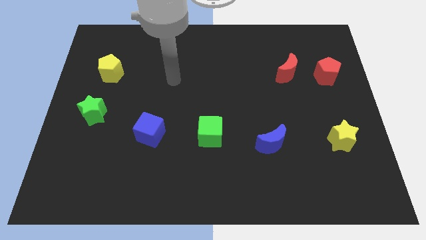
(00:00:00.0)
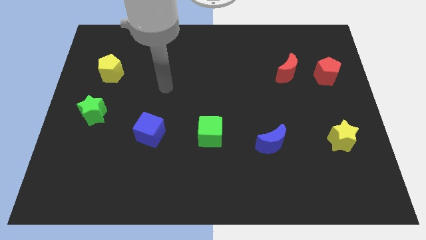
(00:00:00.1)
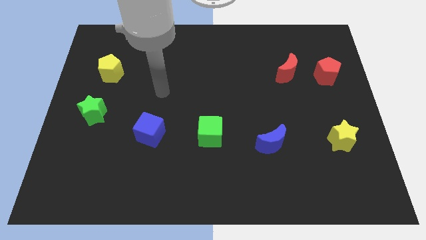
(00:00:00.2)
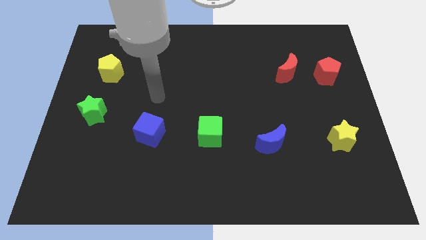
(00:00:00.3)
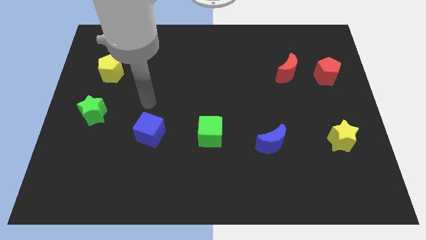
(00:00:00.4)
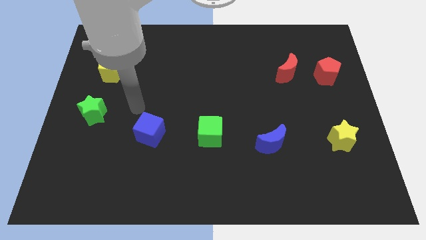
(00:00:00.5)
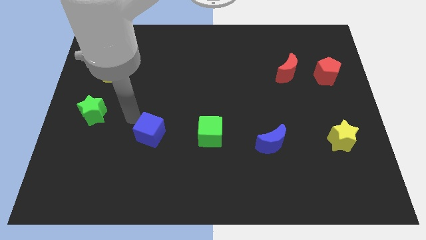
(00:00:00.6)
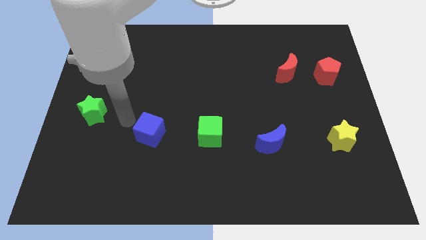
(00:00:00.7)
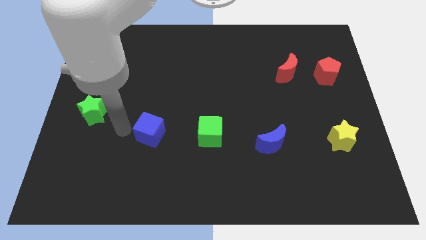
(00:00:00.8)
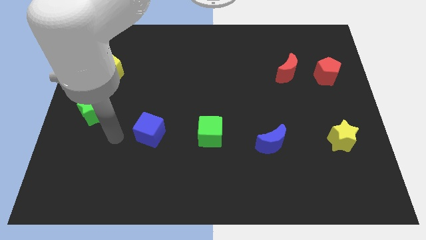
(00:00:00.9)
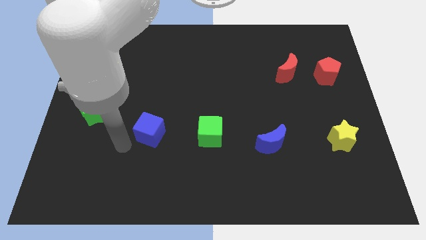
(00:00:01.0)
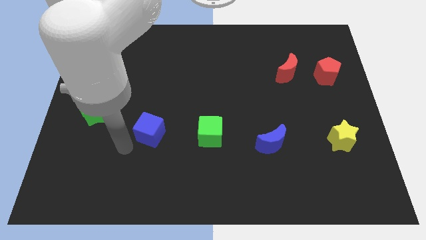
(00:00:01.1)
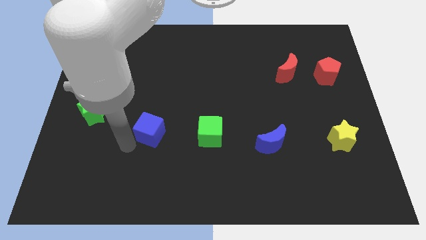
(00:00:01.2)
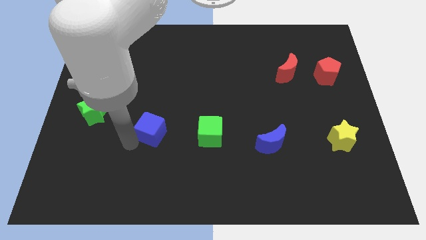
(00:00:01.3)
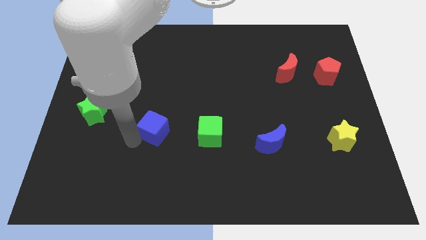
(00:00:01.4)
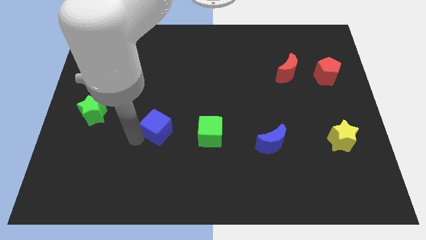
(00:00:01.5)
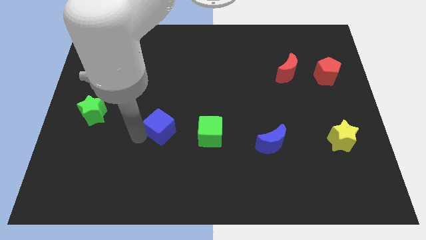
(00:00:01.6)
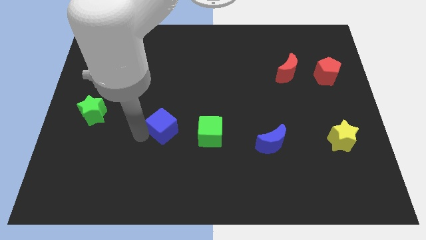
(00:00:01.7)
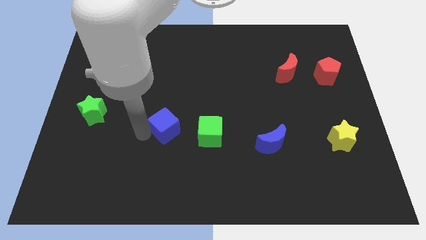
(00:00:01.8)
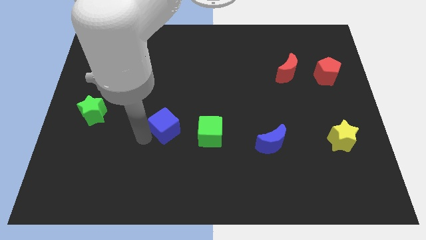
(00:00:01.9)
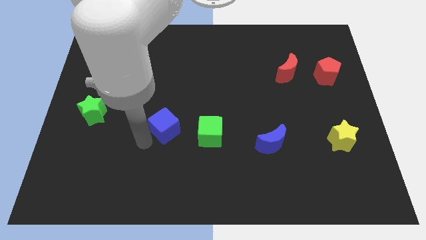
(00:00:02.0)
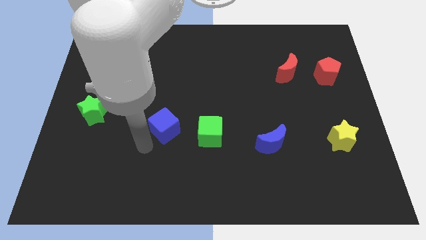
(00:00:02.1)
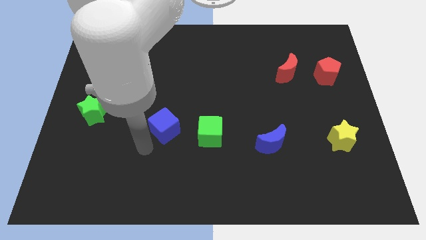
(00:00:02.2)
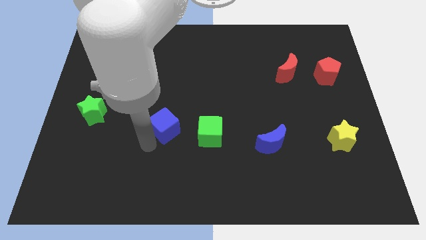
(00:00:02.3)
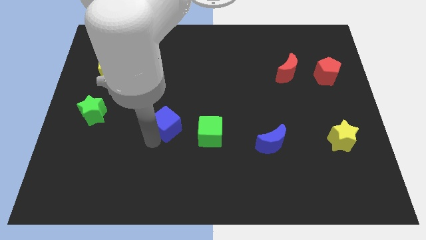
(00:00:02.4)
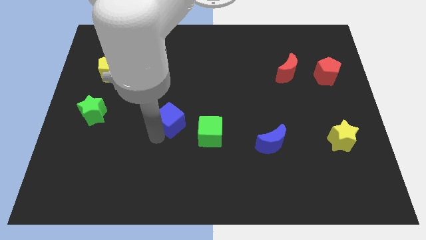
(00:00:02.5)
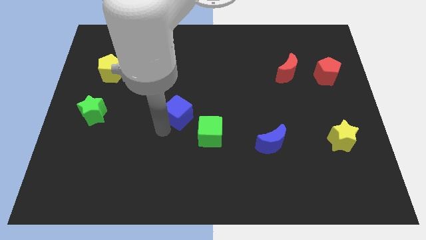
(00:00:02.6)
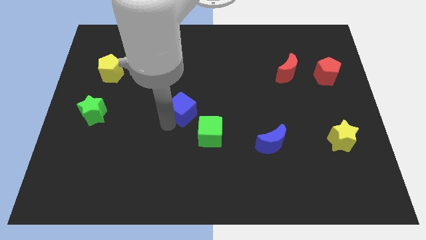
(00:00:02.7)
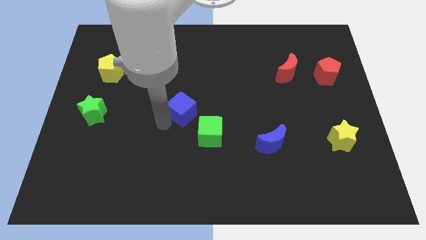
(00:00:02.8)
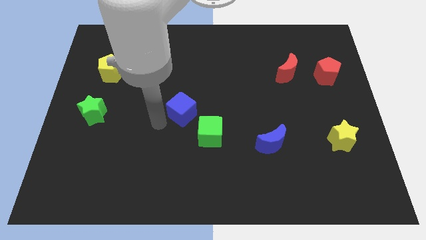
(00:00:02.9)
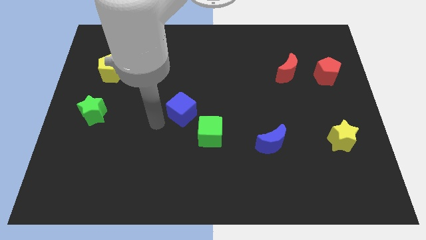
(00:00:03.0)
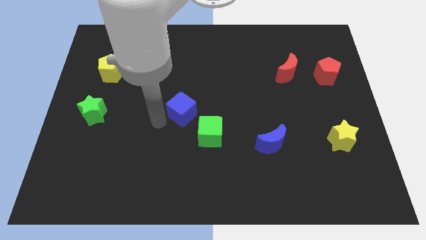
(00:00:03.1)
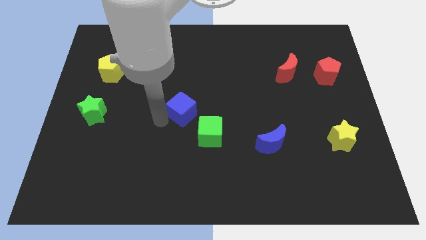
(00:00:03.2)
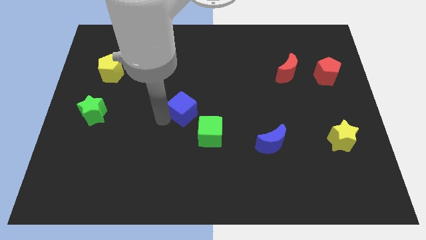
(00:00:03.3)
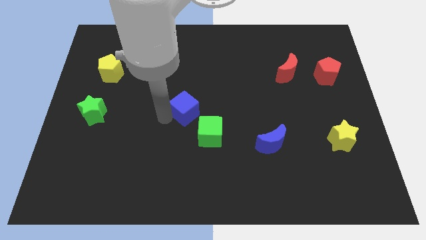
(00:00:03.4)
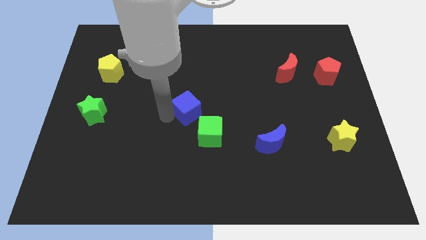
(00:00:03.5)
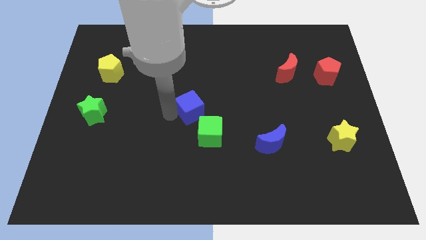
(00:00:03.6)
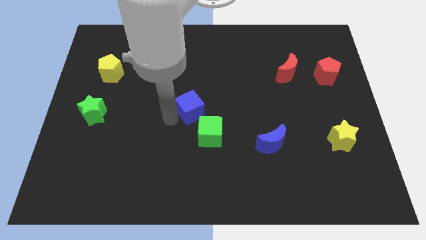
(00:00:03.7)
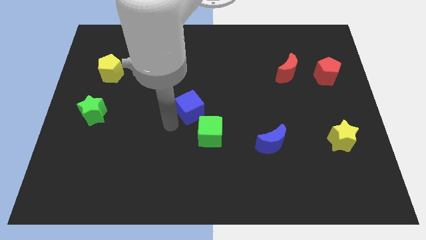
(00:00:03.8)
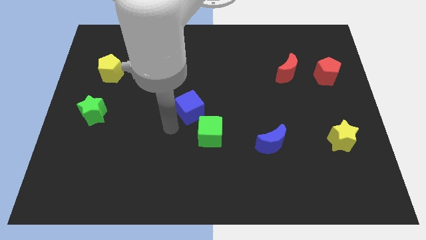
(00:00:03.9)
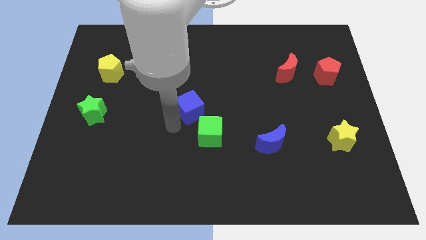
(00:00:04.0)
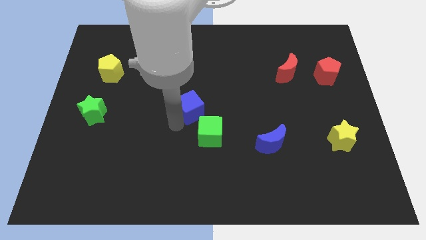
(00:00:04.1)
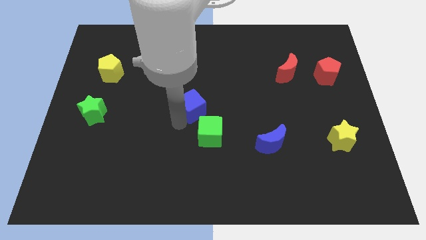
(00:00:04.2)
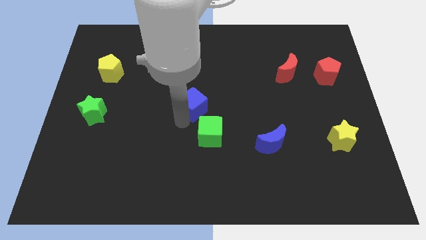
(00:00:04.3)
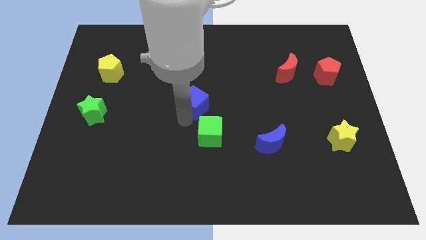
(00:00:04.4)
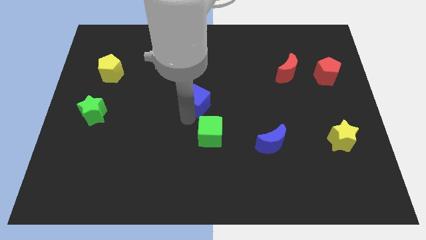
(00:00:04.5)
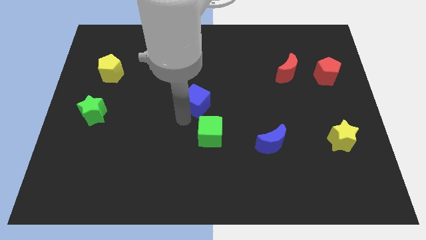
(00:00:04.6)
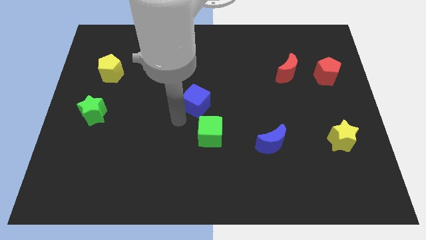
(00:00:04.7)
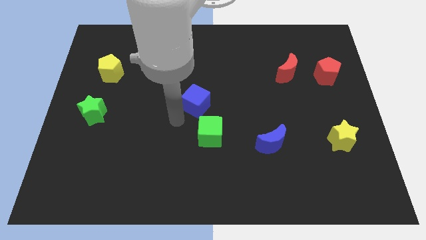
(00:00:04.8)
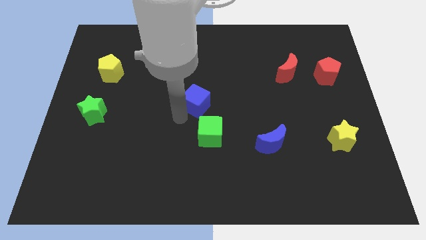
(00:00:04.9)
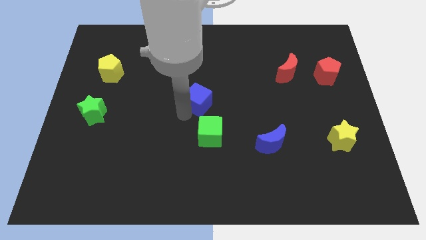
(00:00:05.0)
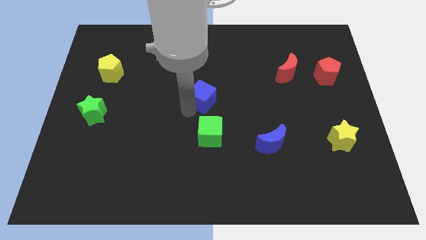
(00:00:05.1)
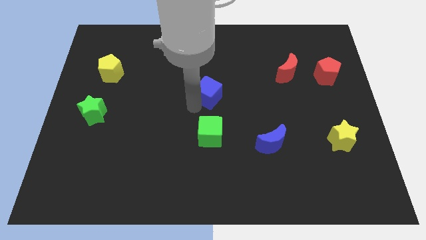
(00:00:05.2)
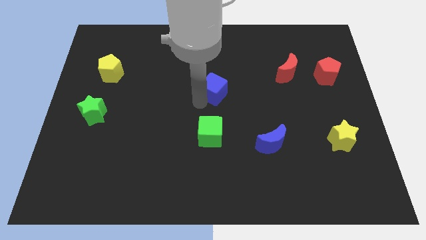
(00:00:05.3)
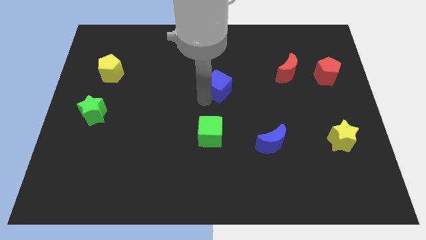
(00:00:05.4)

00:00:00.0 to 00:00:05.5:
move the blue cube up and to the right

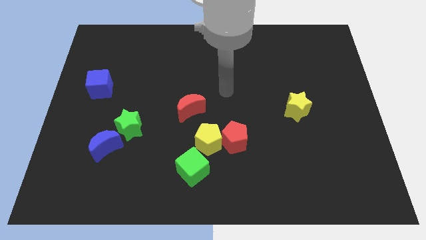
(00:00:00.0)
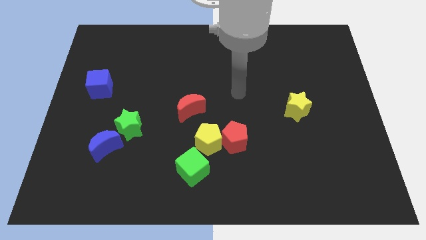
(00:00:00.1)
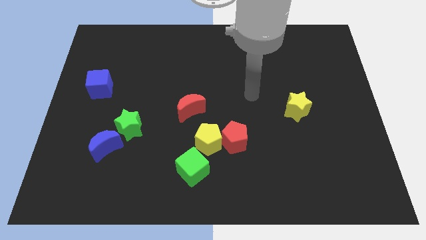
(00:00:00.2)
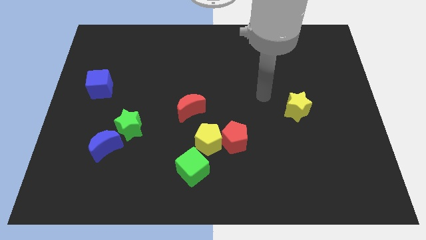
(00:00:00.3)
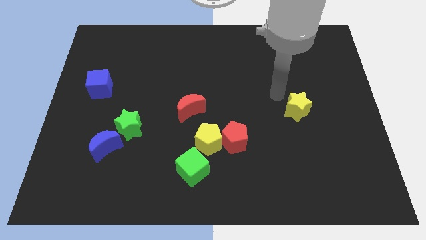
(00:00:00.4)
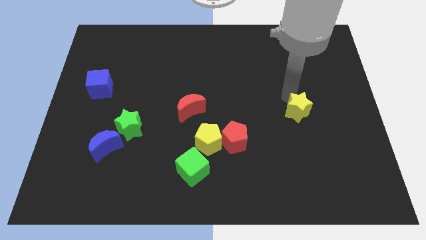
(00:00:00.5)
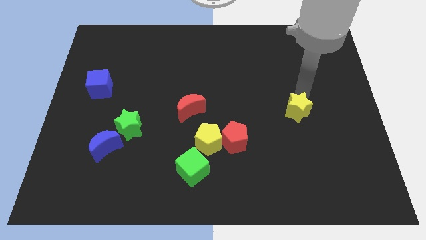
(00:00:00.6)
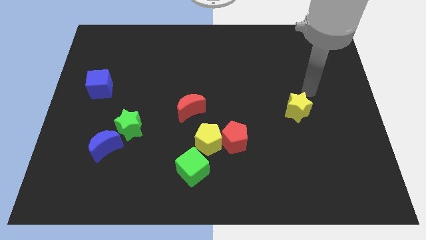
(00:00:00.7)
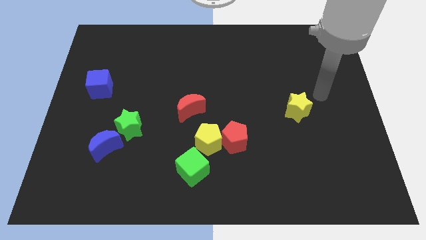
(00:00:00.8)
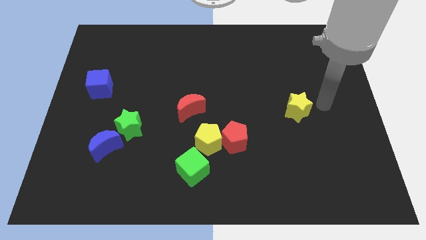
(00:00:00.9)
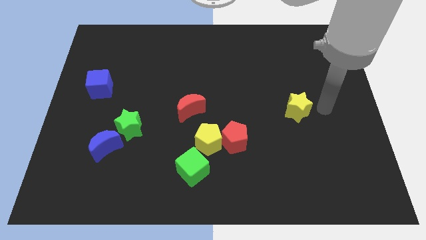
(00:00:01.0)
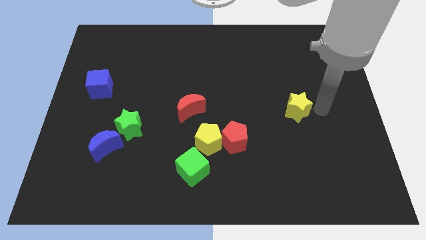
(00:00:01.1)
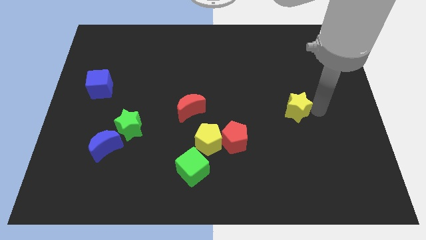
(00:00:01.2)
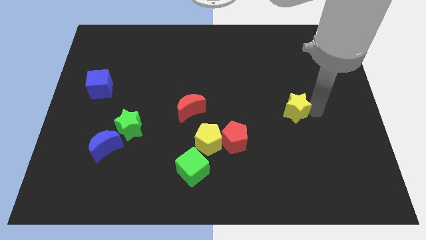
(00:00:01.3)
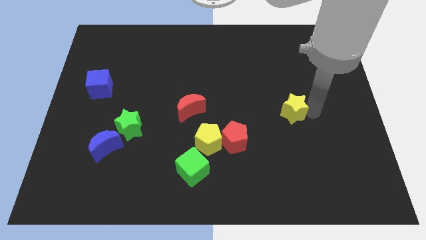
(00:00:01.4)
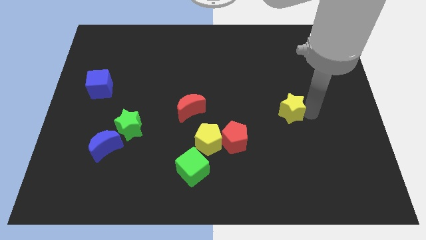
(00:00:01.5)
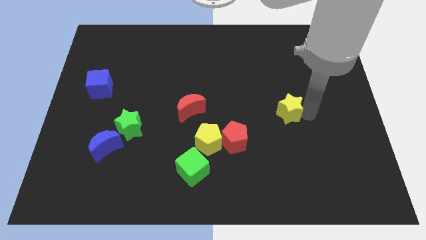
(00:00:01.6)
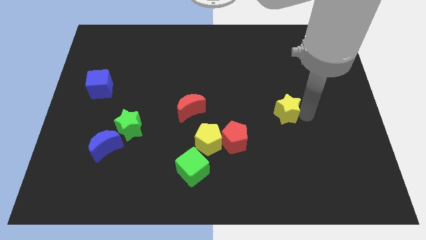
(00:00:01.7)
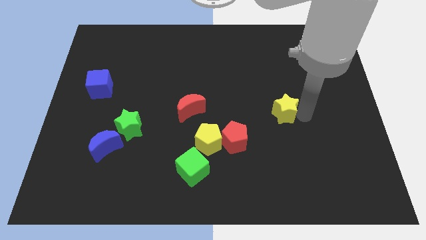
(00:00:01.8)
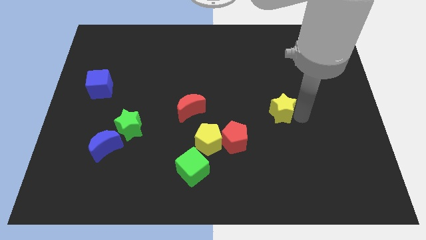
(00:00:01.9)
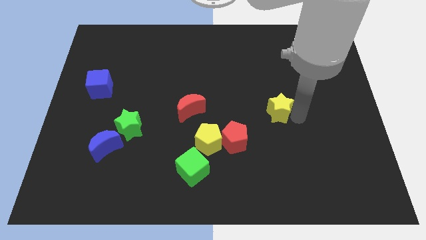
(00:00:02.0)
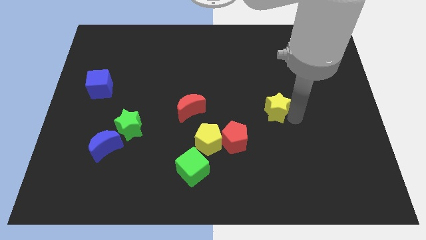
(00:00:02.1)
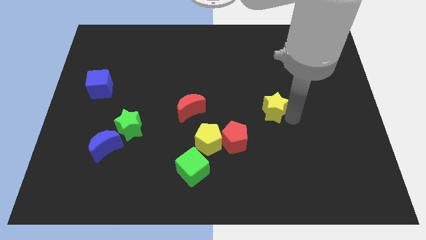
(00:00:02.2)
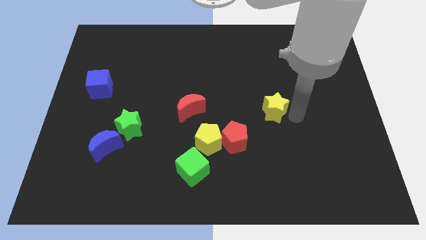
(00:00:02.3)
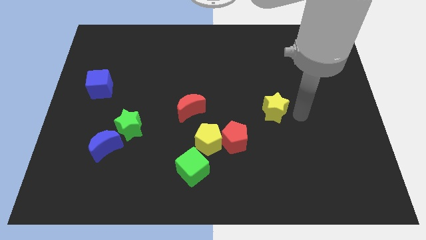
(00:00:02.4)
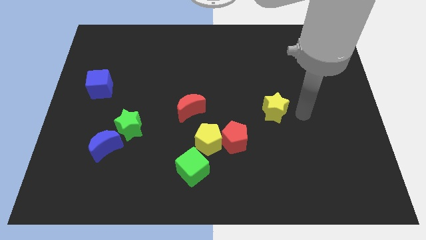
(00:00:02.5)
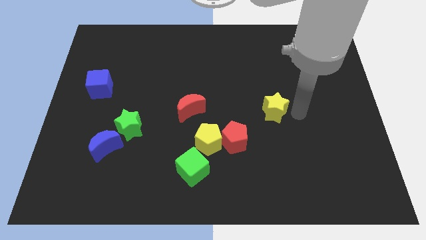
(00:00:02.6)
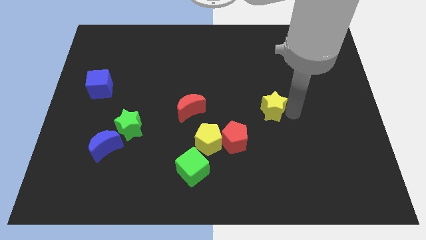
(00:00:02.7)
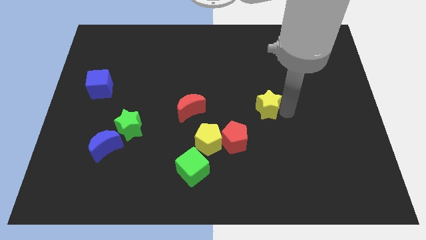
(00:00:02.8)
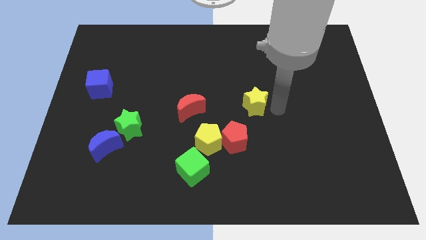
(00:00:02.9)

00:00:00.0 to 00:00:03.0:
slide the yellow star a bit to the left
